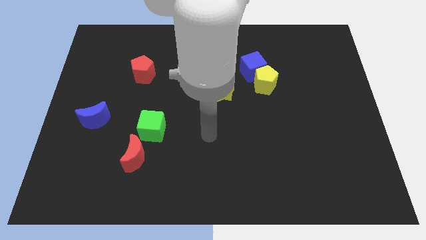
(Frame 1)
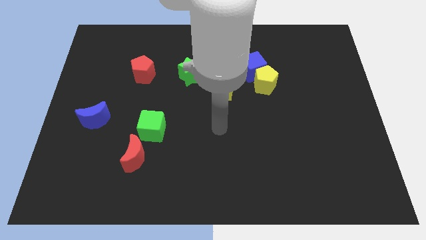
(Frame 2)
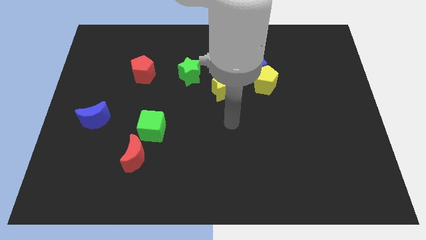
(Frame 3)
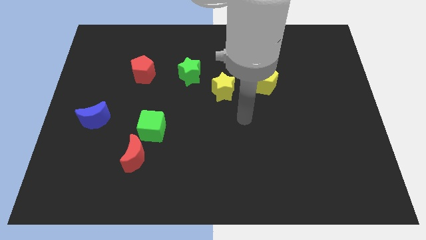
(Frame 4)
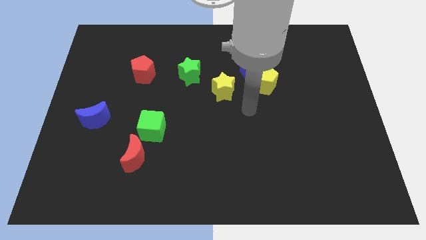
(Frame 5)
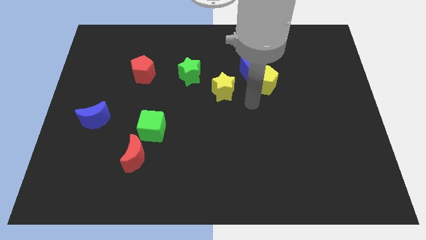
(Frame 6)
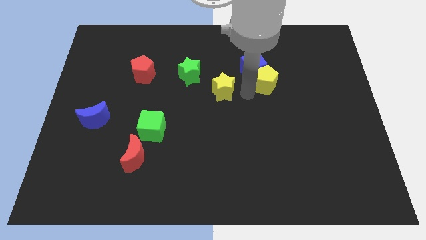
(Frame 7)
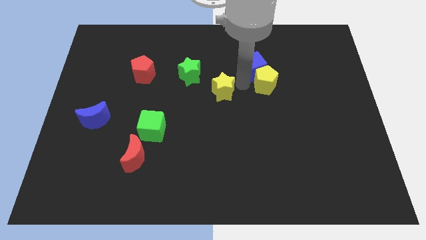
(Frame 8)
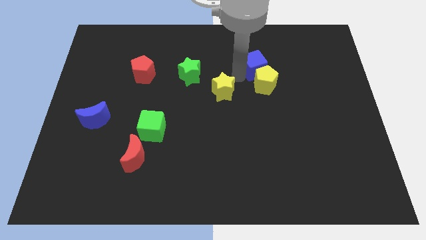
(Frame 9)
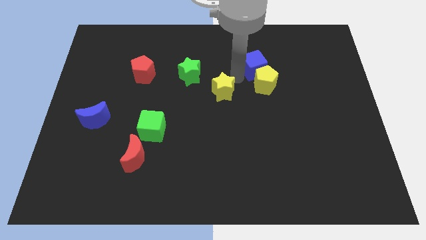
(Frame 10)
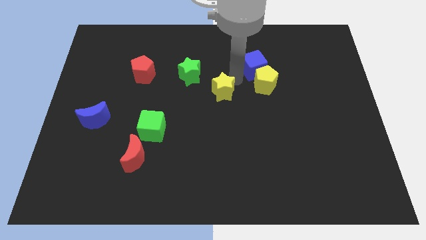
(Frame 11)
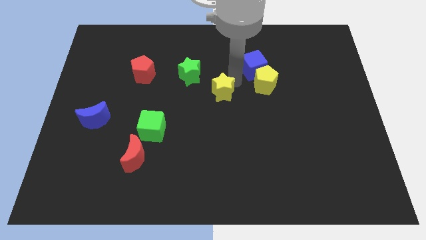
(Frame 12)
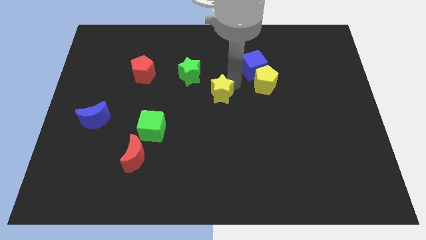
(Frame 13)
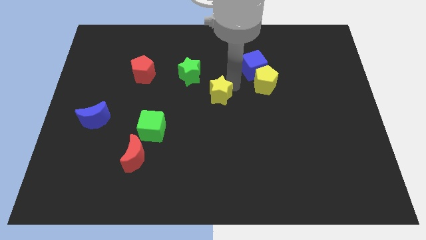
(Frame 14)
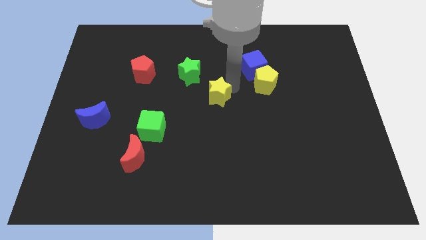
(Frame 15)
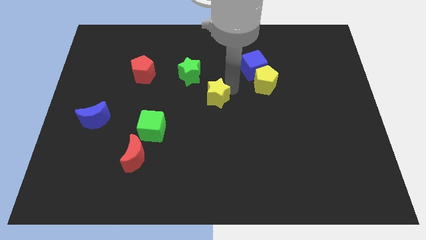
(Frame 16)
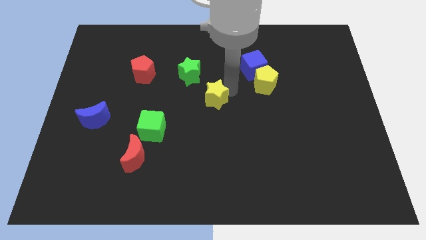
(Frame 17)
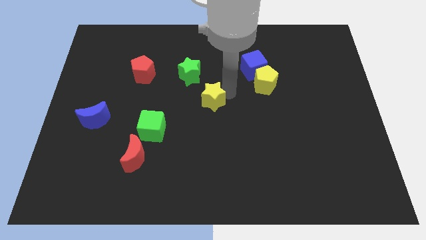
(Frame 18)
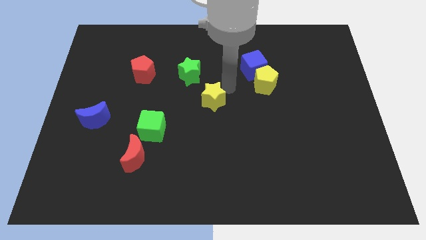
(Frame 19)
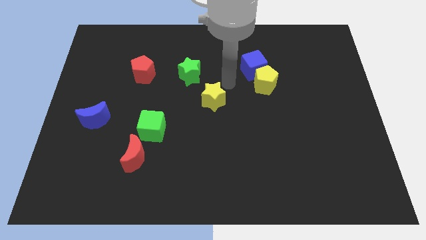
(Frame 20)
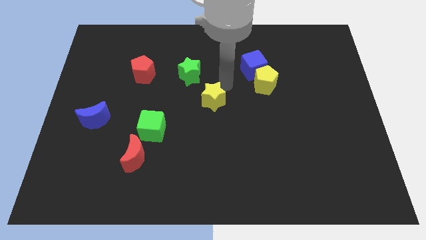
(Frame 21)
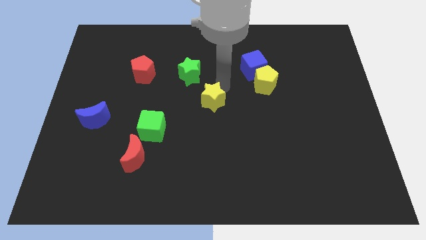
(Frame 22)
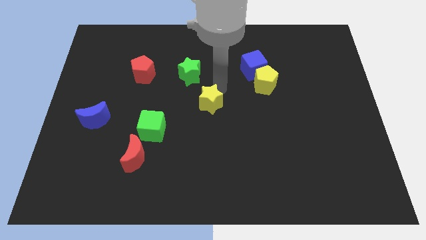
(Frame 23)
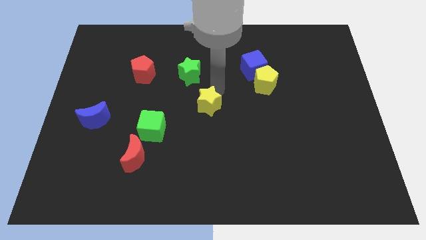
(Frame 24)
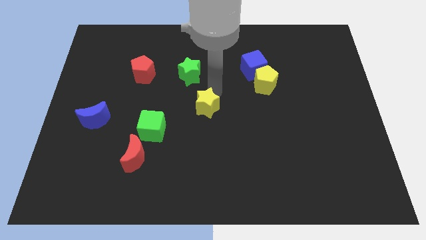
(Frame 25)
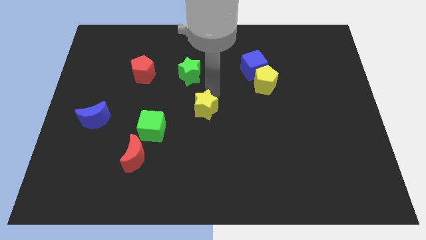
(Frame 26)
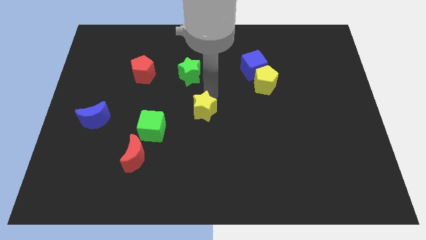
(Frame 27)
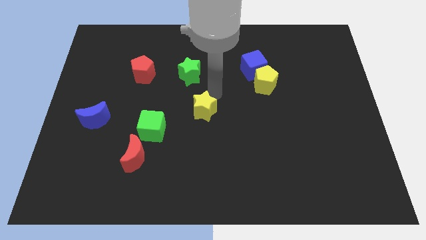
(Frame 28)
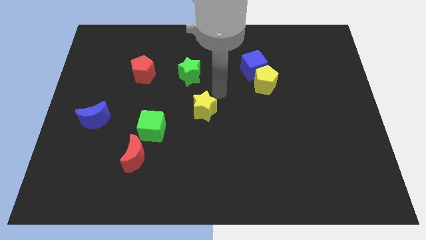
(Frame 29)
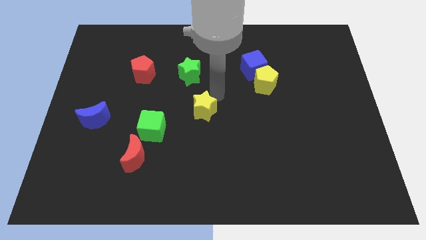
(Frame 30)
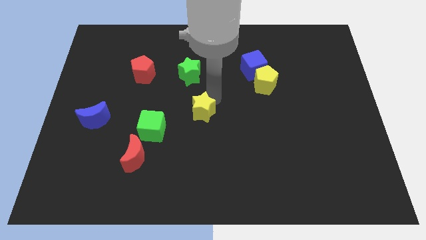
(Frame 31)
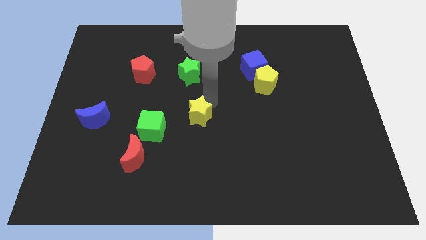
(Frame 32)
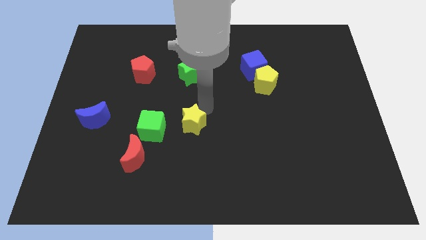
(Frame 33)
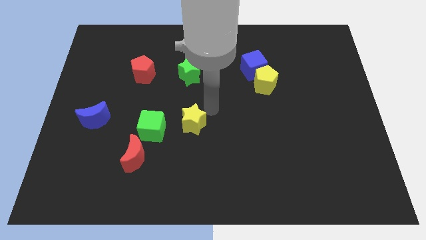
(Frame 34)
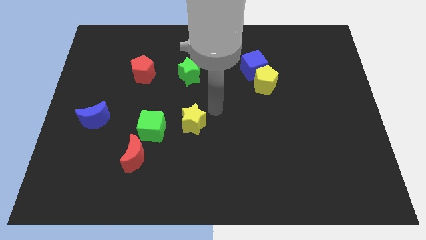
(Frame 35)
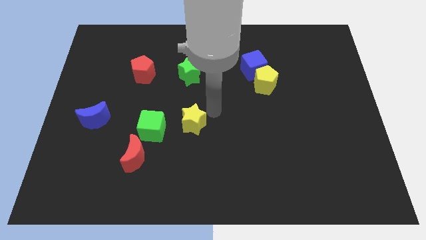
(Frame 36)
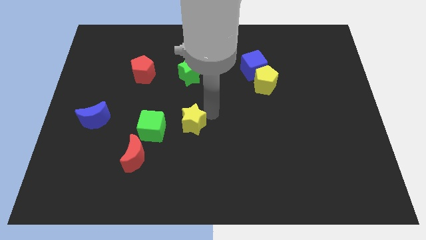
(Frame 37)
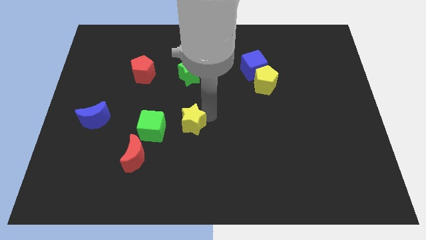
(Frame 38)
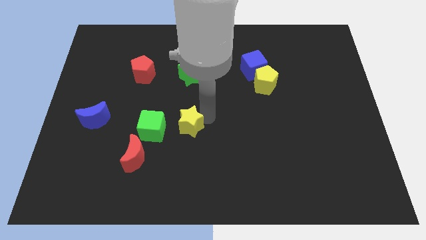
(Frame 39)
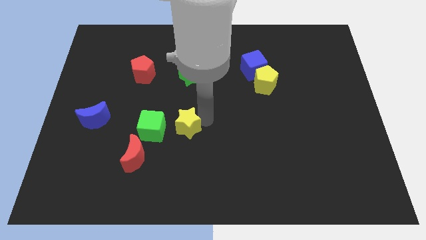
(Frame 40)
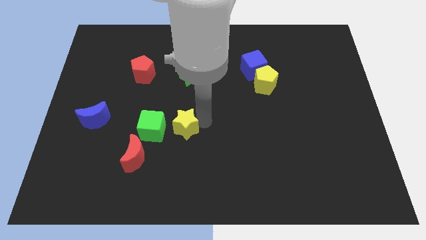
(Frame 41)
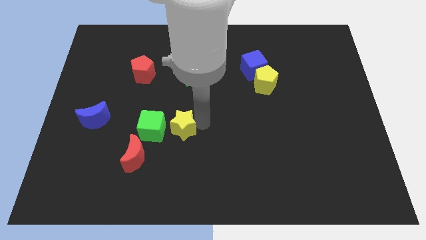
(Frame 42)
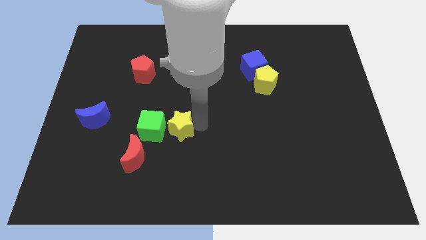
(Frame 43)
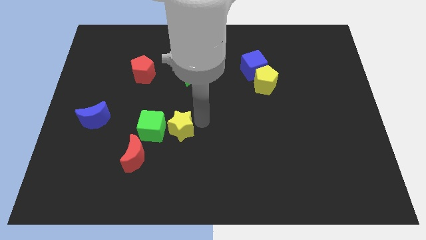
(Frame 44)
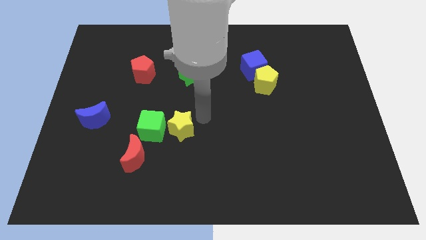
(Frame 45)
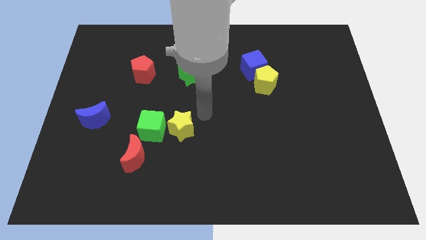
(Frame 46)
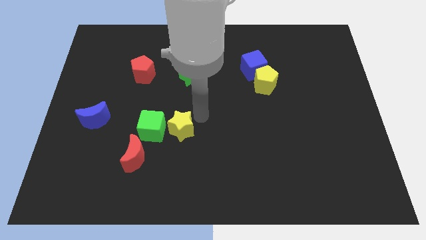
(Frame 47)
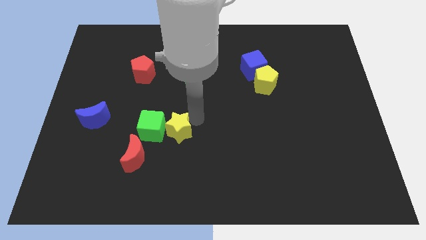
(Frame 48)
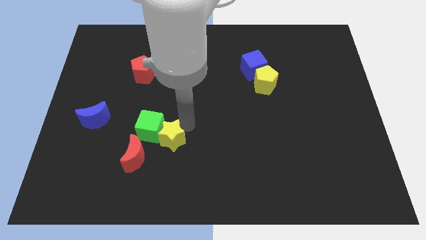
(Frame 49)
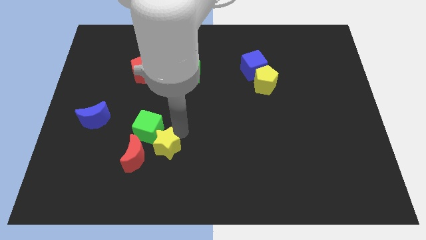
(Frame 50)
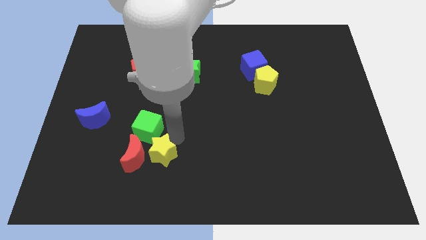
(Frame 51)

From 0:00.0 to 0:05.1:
push the yellow star towards the red moon

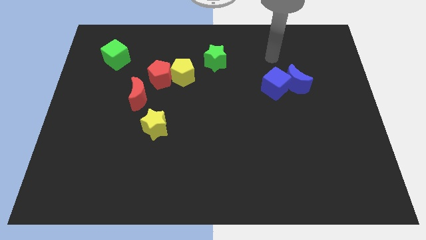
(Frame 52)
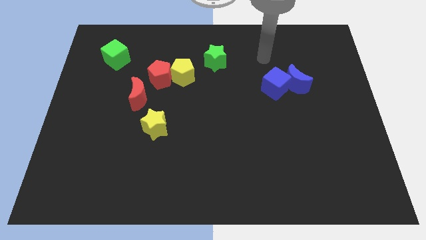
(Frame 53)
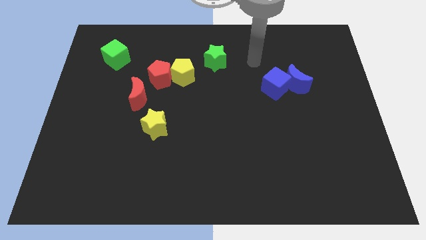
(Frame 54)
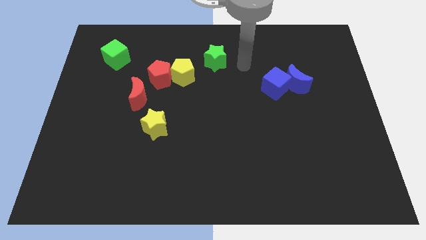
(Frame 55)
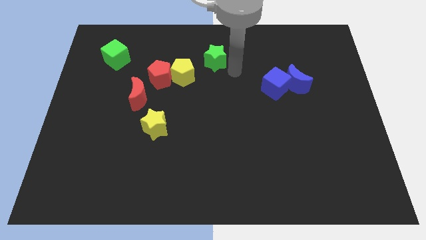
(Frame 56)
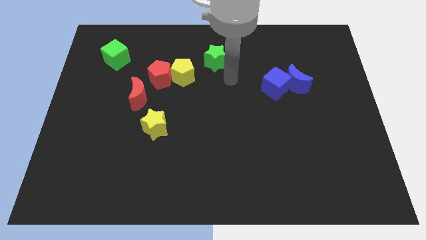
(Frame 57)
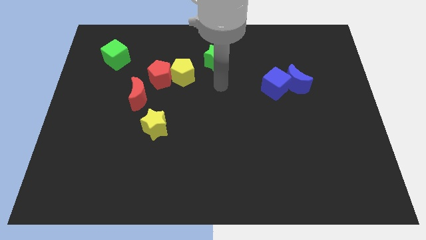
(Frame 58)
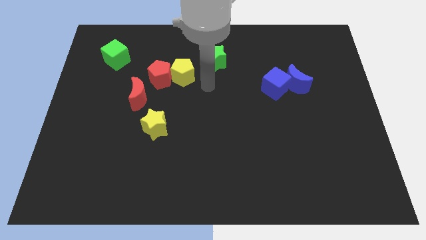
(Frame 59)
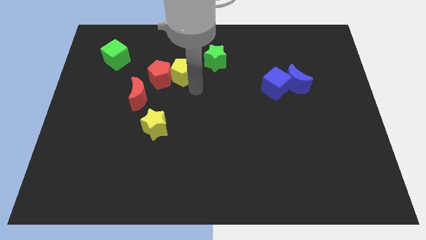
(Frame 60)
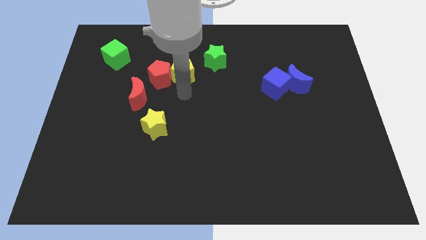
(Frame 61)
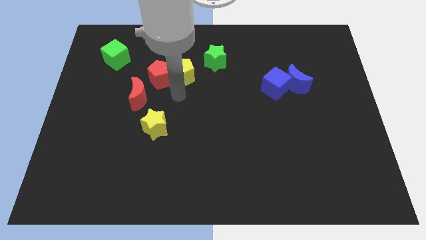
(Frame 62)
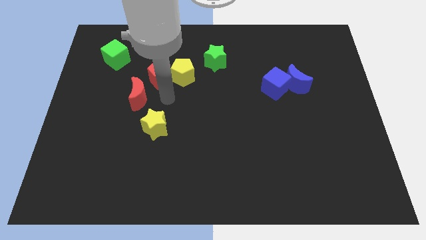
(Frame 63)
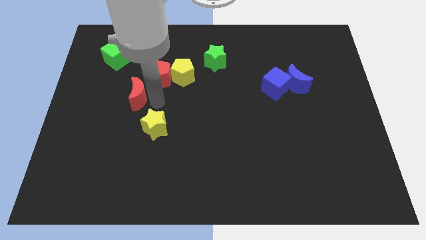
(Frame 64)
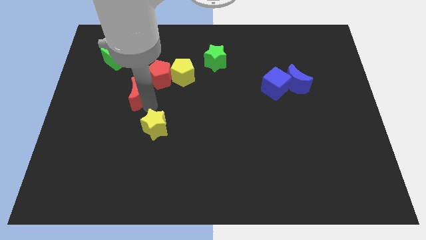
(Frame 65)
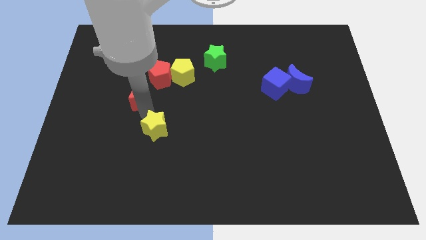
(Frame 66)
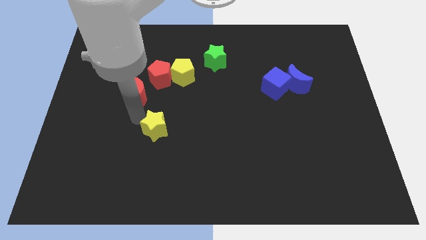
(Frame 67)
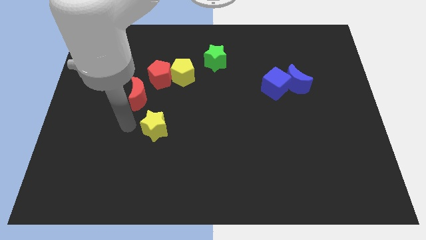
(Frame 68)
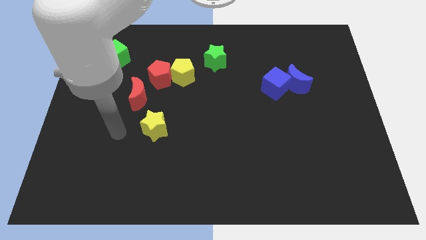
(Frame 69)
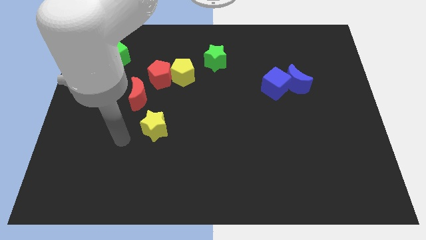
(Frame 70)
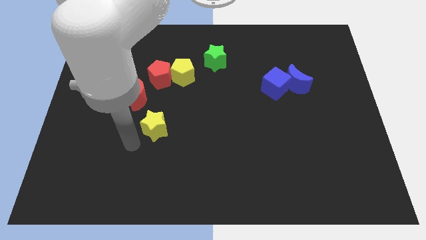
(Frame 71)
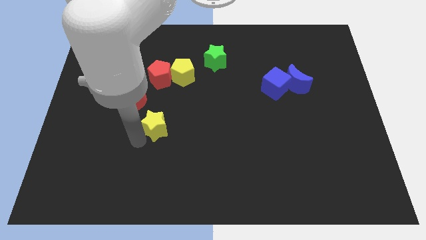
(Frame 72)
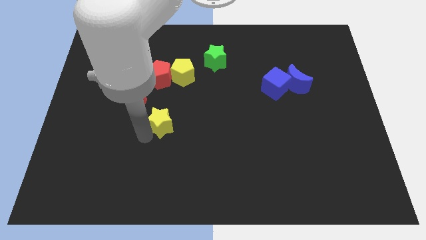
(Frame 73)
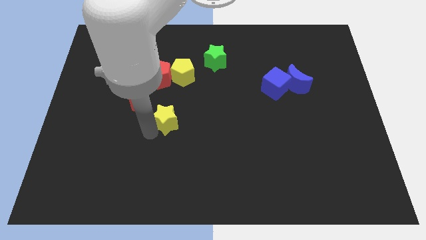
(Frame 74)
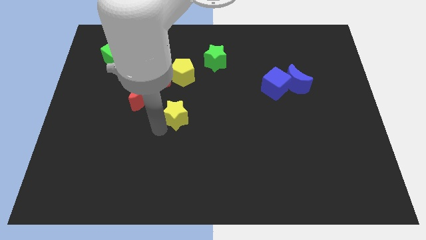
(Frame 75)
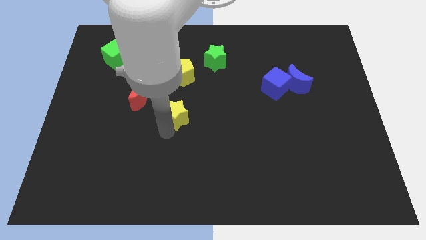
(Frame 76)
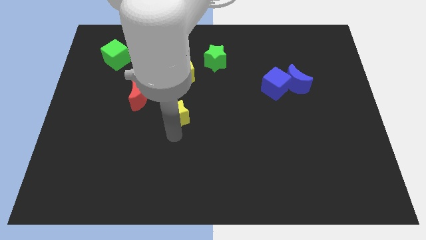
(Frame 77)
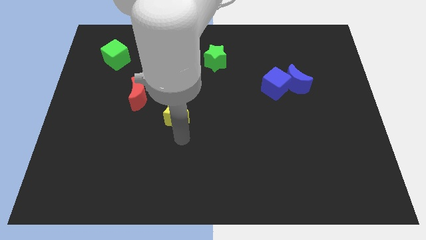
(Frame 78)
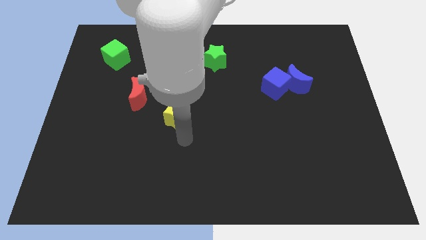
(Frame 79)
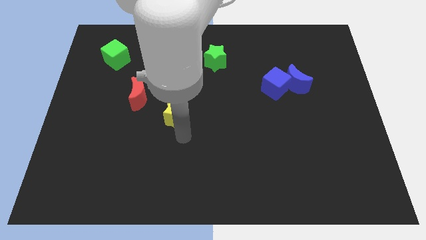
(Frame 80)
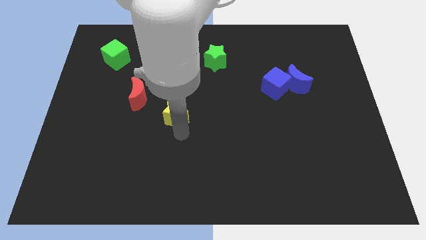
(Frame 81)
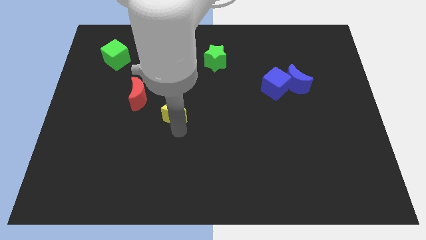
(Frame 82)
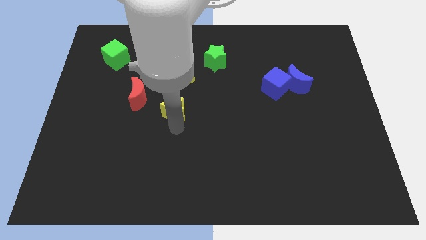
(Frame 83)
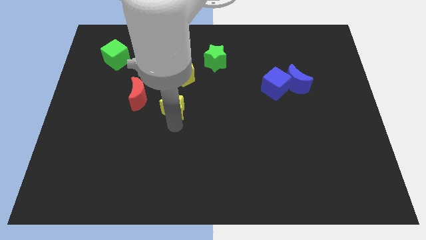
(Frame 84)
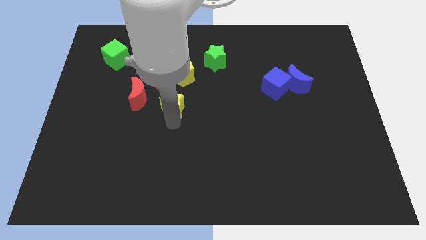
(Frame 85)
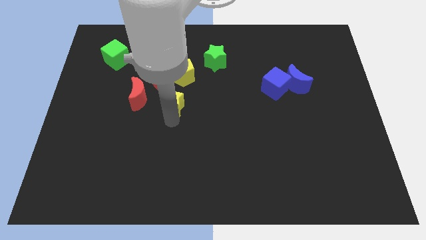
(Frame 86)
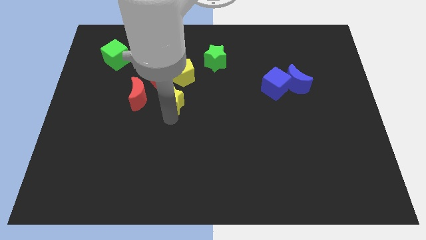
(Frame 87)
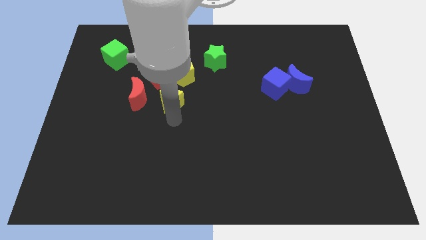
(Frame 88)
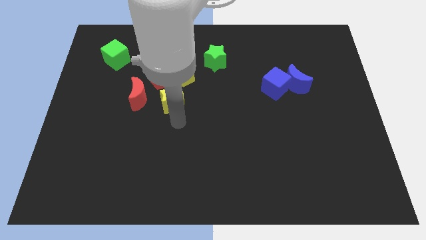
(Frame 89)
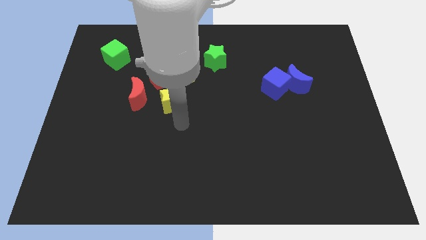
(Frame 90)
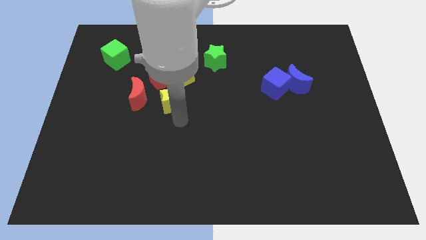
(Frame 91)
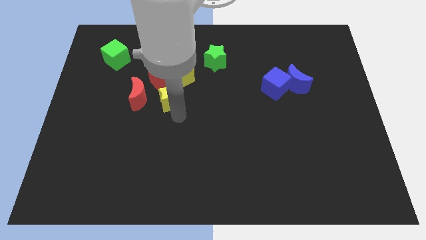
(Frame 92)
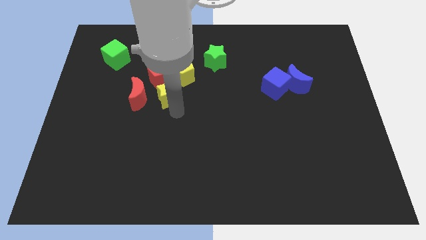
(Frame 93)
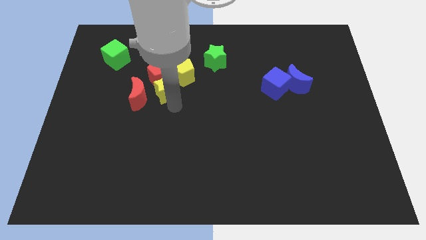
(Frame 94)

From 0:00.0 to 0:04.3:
move the yellow star close to the red pentagon
